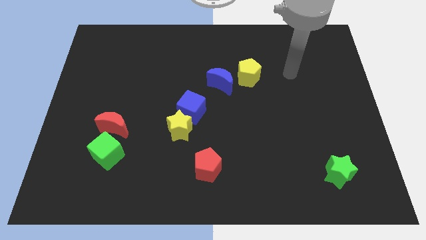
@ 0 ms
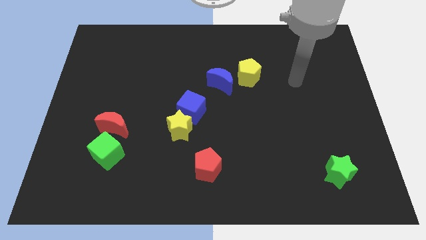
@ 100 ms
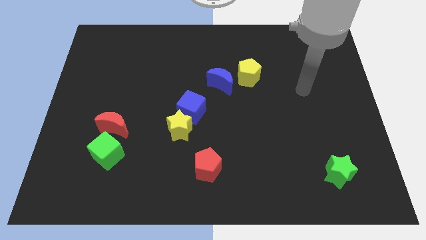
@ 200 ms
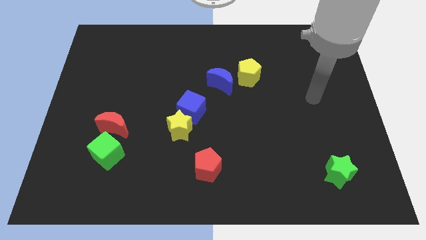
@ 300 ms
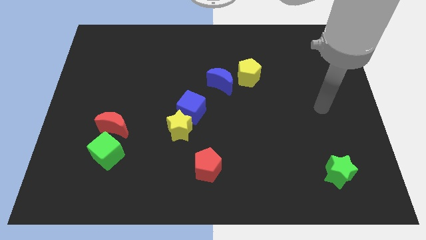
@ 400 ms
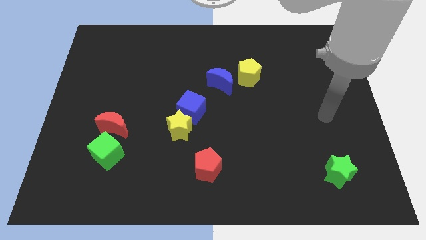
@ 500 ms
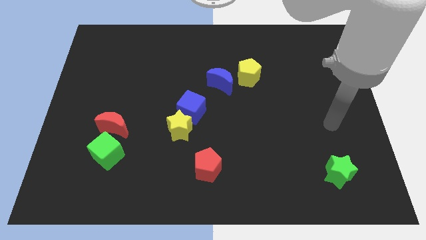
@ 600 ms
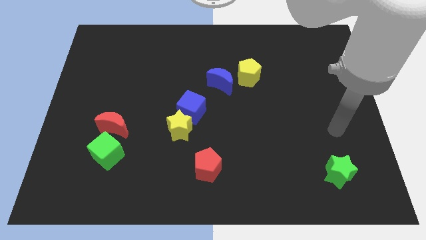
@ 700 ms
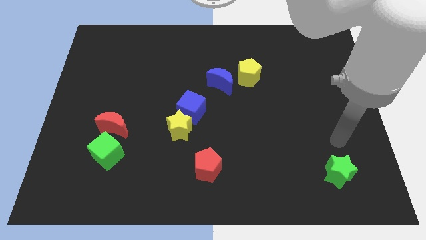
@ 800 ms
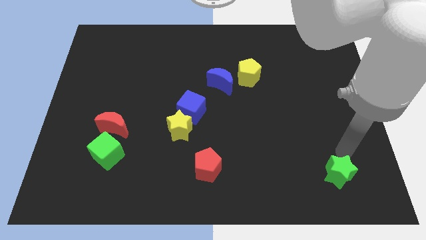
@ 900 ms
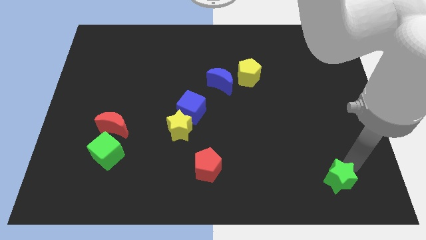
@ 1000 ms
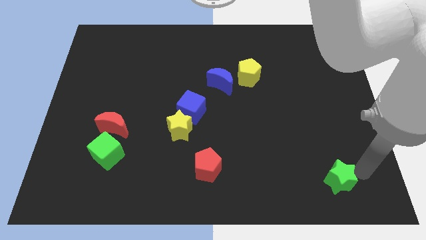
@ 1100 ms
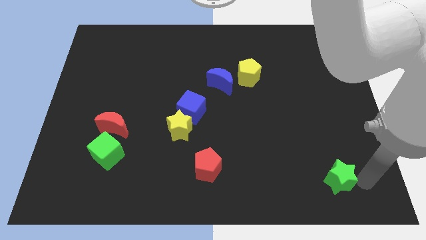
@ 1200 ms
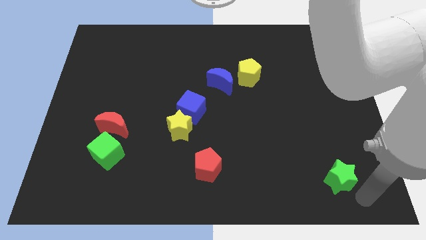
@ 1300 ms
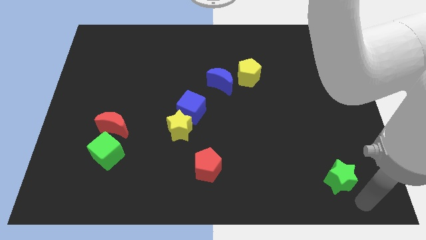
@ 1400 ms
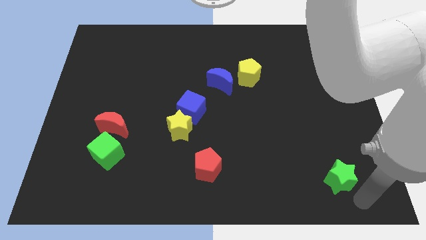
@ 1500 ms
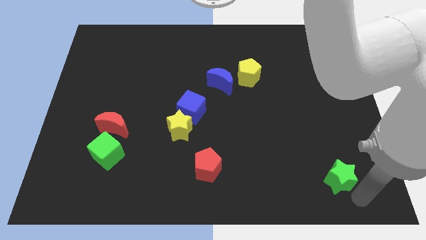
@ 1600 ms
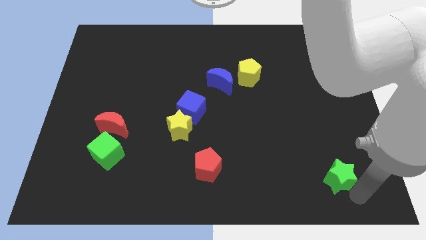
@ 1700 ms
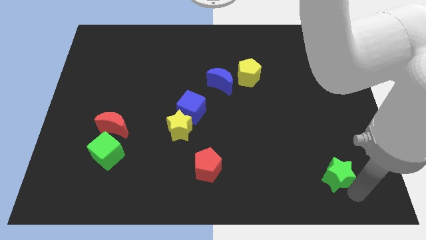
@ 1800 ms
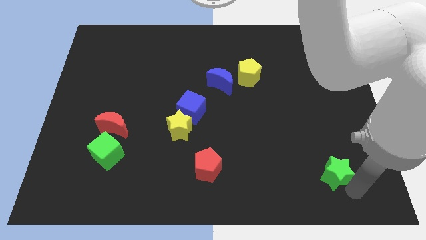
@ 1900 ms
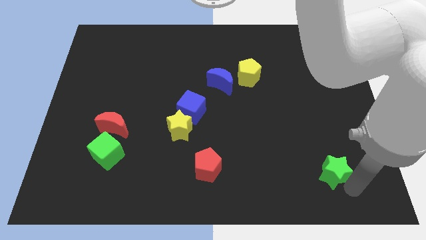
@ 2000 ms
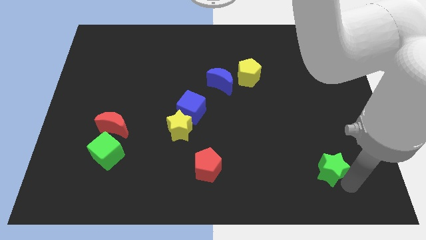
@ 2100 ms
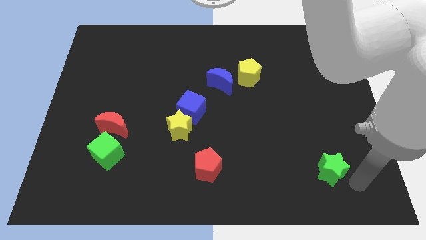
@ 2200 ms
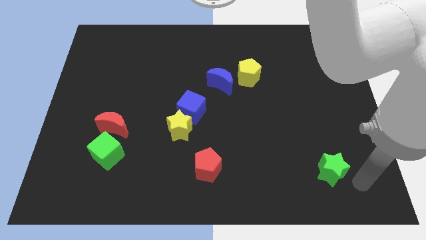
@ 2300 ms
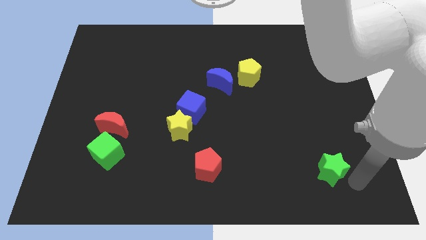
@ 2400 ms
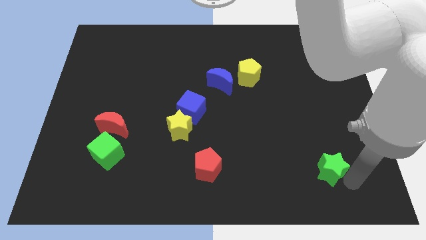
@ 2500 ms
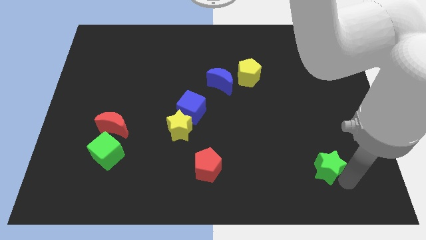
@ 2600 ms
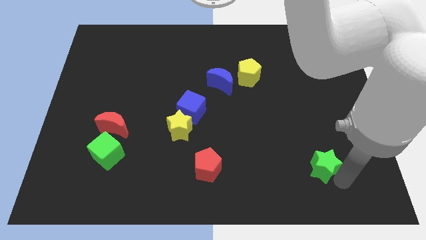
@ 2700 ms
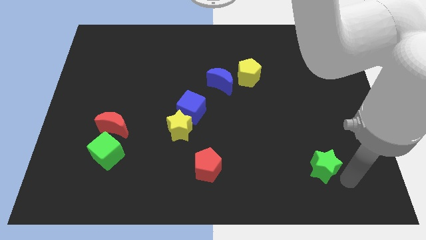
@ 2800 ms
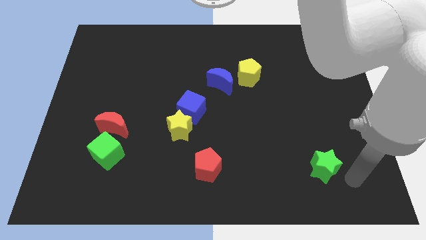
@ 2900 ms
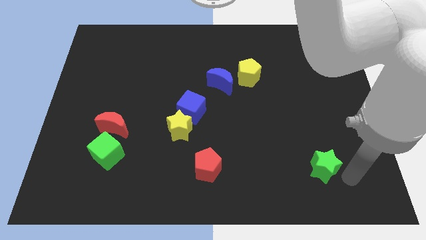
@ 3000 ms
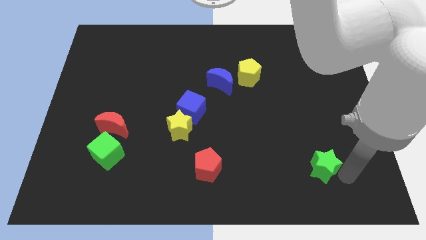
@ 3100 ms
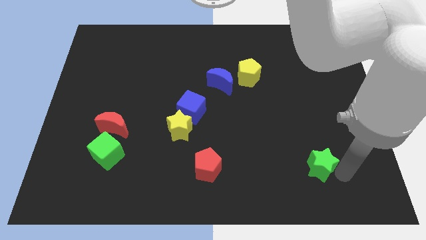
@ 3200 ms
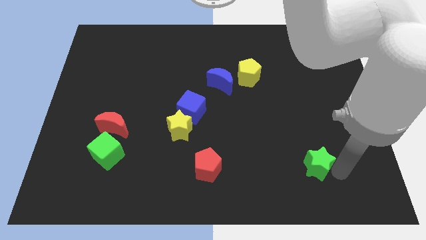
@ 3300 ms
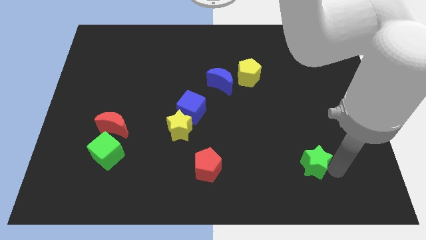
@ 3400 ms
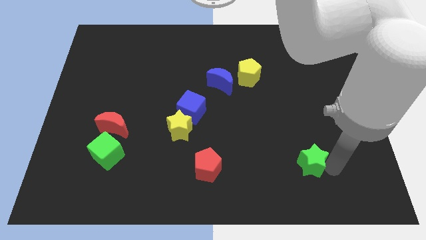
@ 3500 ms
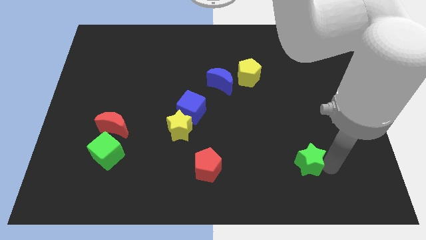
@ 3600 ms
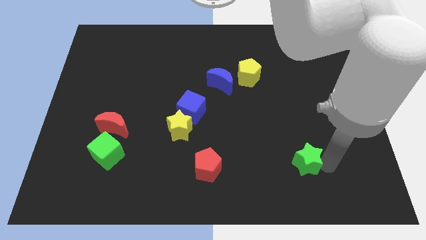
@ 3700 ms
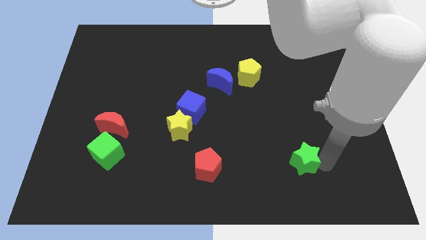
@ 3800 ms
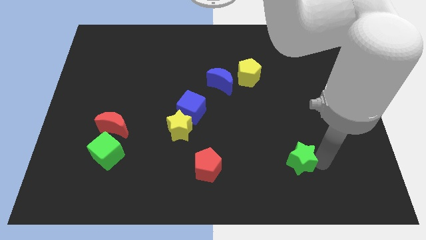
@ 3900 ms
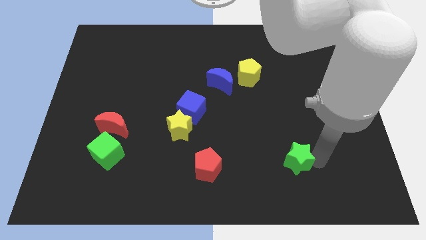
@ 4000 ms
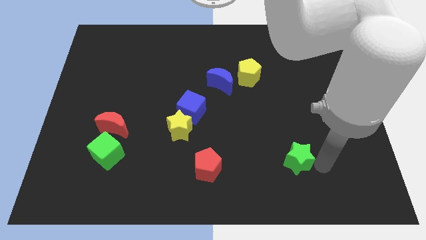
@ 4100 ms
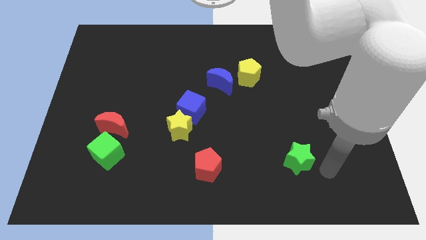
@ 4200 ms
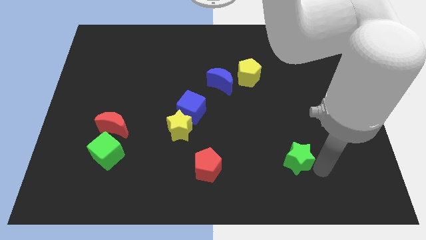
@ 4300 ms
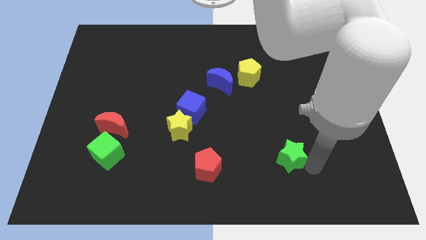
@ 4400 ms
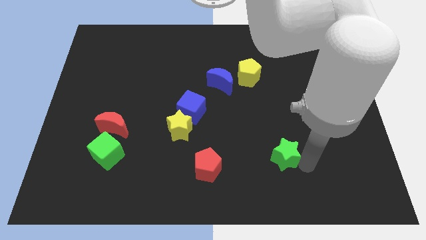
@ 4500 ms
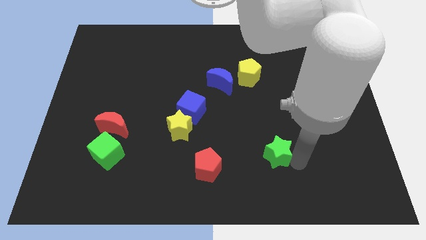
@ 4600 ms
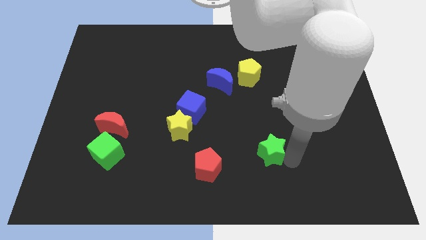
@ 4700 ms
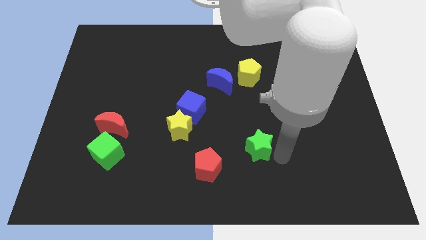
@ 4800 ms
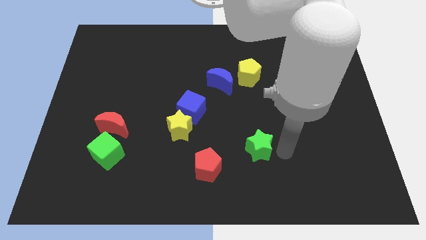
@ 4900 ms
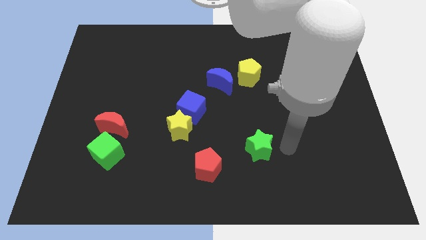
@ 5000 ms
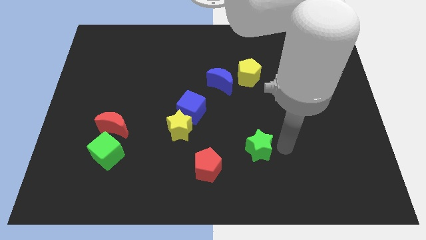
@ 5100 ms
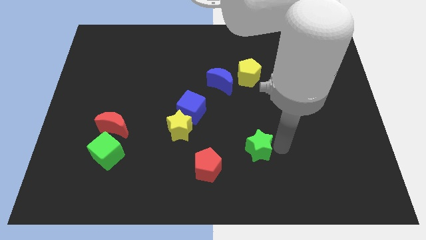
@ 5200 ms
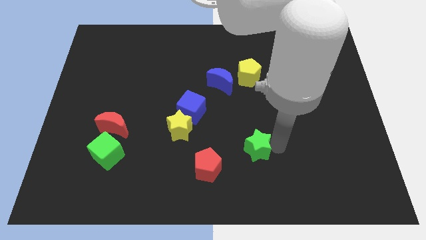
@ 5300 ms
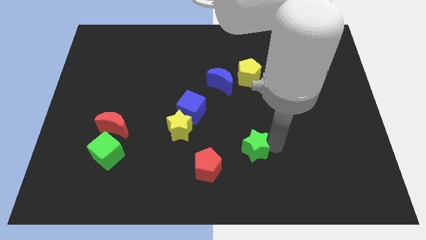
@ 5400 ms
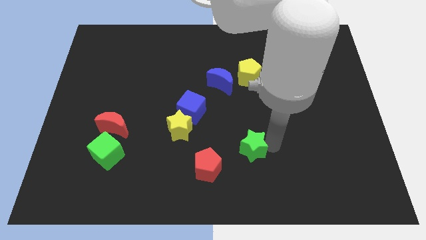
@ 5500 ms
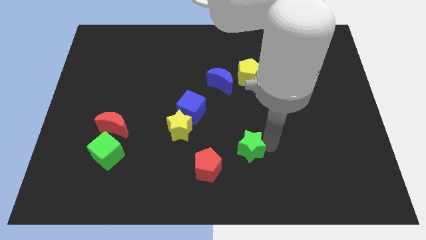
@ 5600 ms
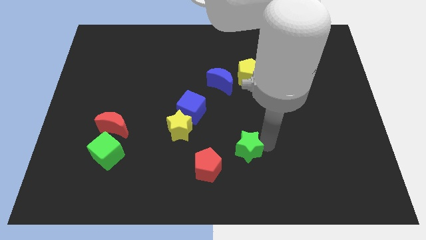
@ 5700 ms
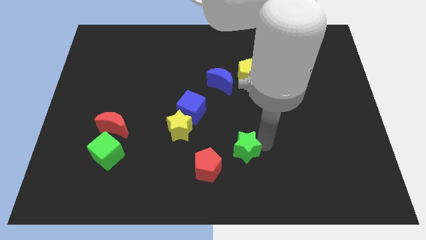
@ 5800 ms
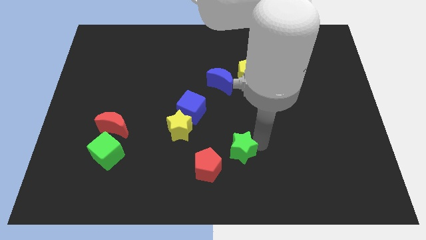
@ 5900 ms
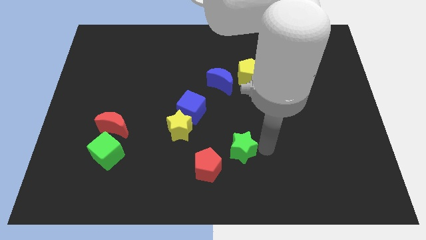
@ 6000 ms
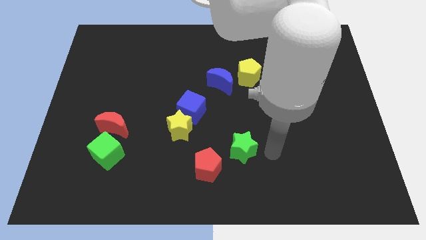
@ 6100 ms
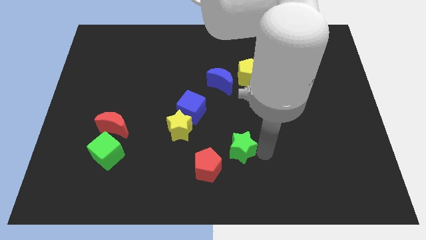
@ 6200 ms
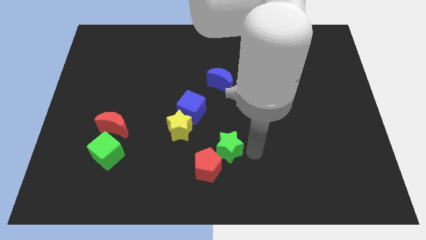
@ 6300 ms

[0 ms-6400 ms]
put the green star diagonally down and to the right of the yellow star

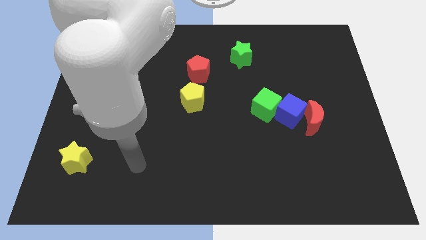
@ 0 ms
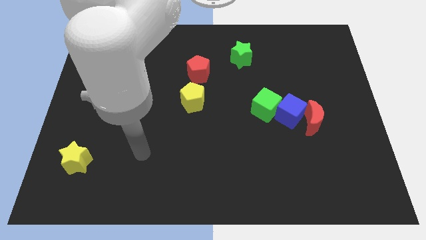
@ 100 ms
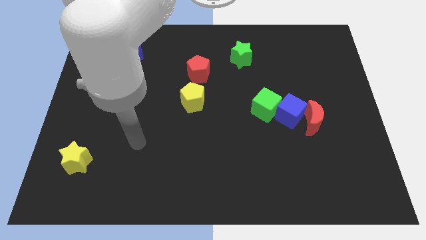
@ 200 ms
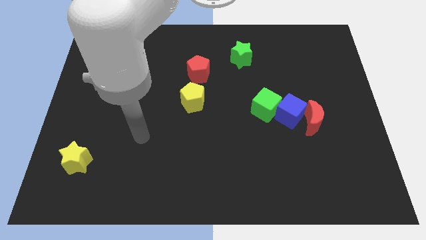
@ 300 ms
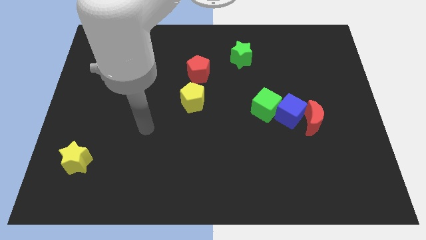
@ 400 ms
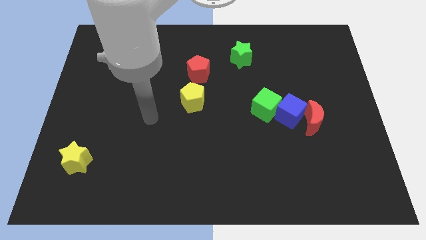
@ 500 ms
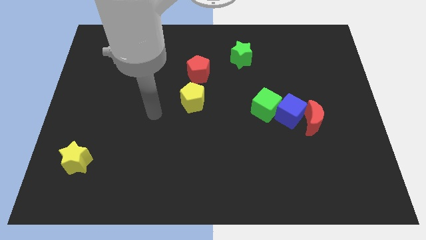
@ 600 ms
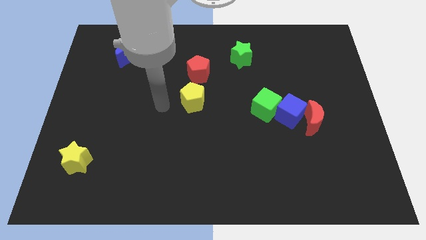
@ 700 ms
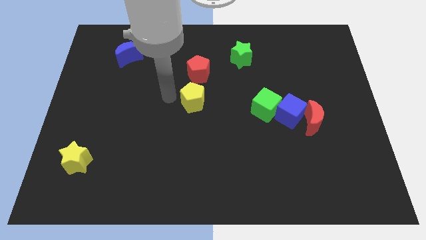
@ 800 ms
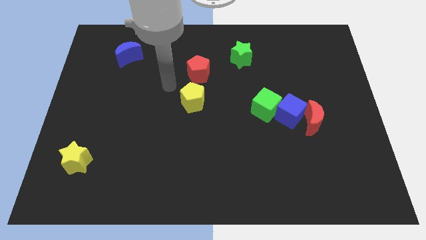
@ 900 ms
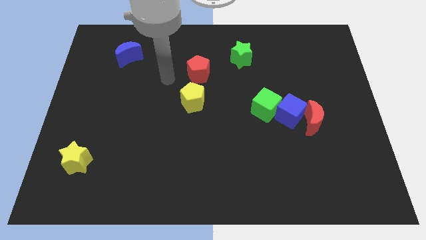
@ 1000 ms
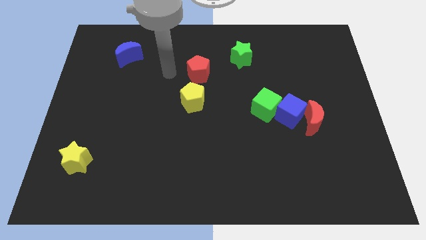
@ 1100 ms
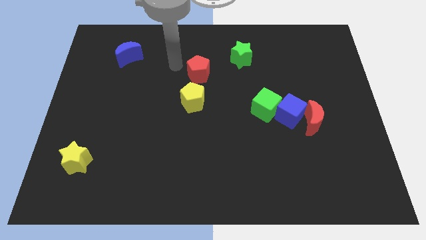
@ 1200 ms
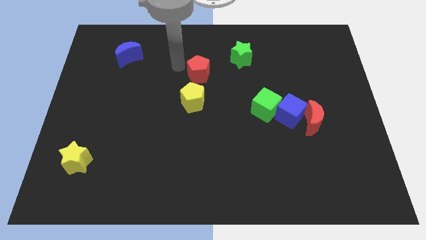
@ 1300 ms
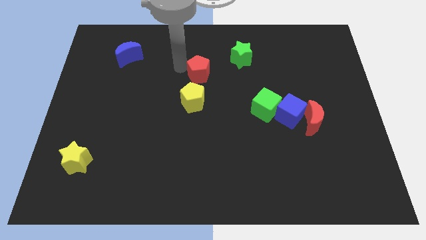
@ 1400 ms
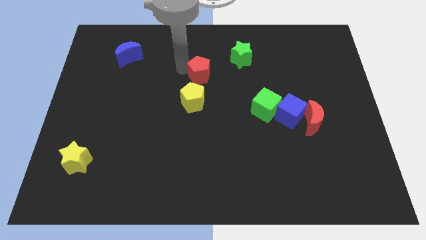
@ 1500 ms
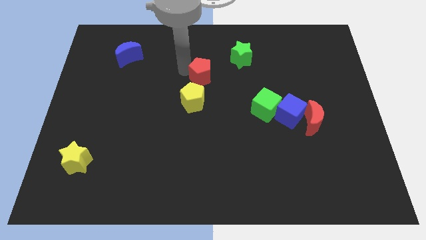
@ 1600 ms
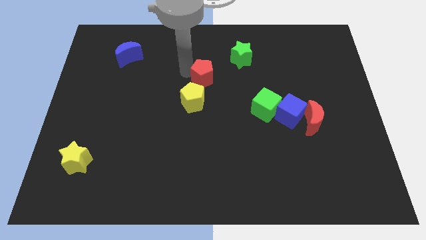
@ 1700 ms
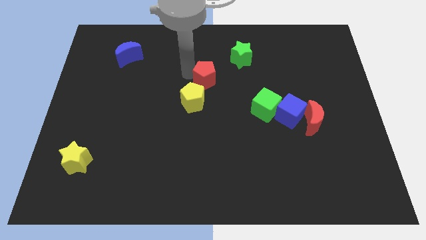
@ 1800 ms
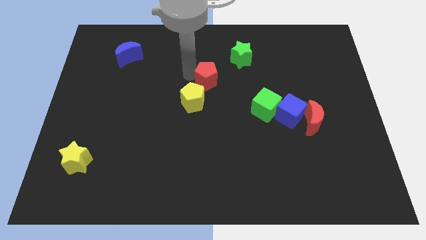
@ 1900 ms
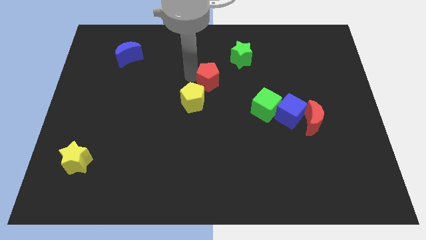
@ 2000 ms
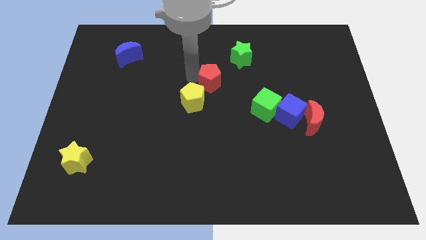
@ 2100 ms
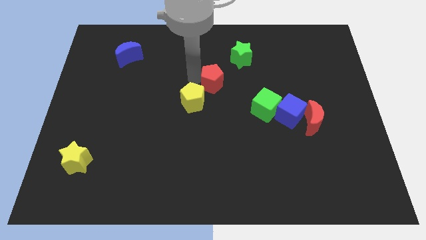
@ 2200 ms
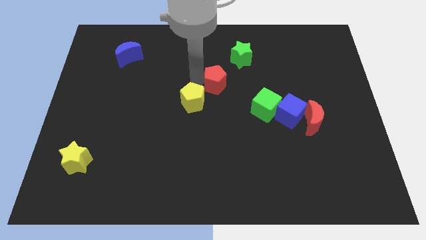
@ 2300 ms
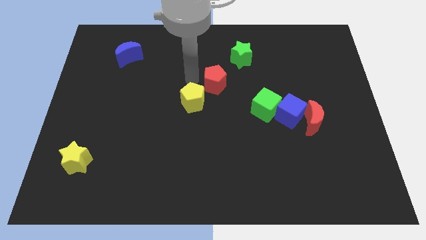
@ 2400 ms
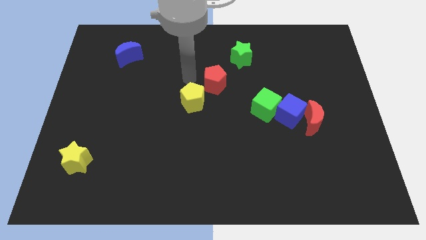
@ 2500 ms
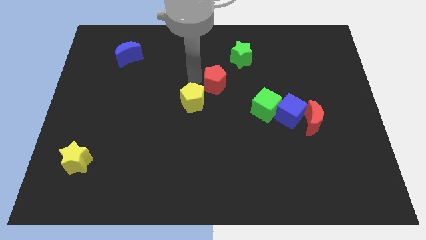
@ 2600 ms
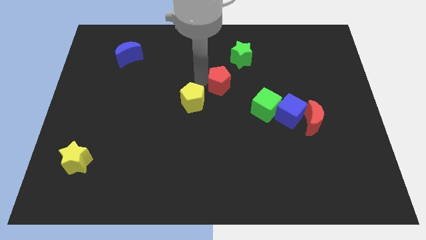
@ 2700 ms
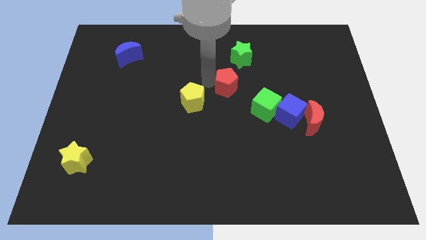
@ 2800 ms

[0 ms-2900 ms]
move the red pentagon to the bottom side of the green star
